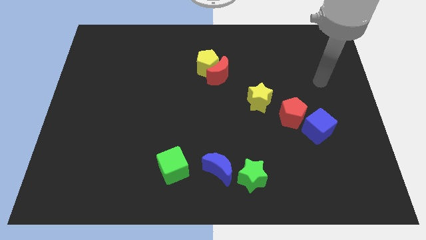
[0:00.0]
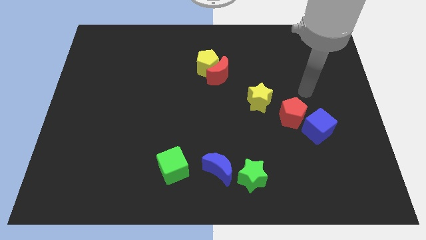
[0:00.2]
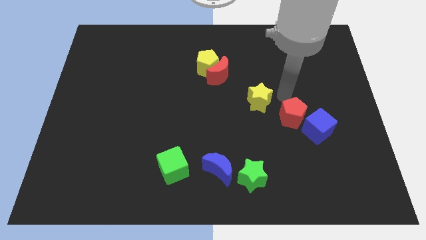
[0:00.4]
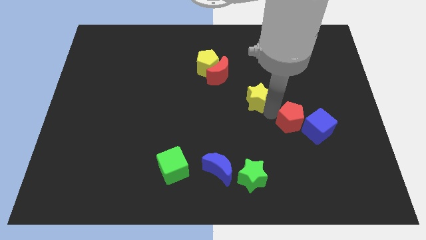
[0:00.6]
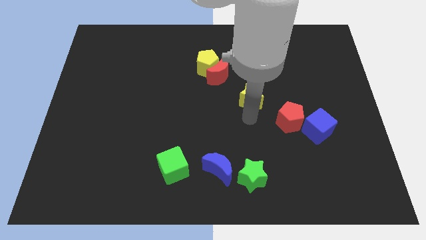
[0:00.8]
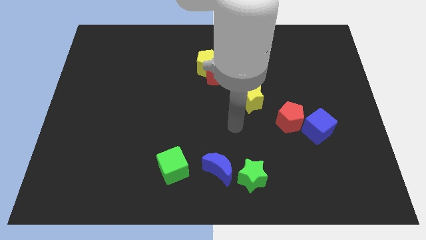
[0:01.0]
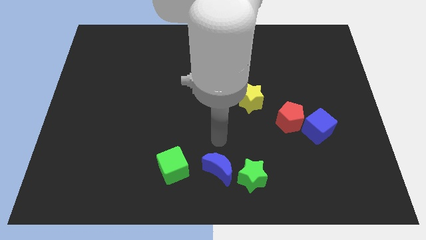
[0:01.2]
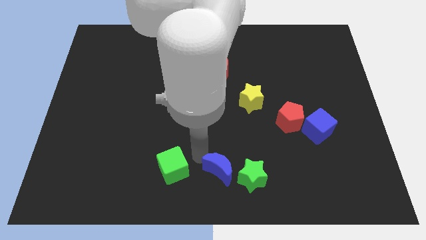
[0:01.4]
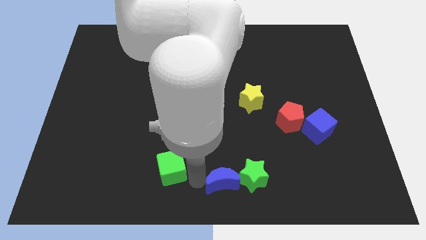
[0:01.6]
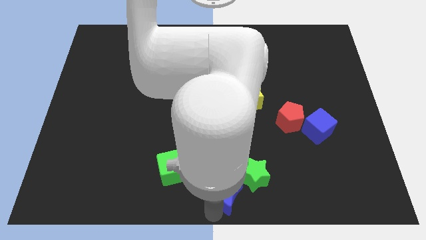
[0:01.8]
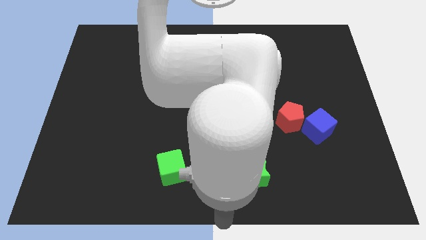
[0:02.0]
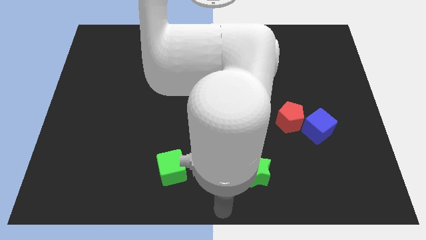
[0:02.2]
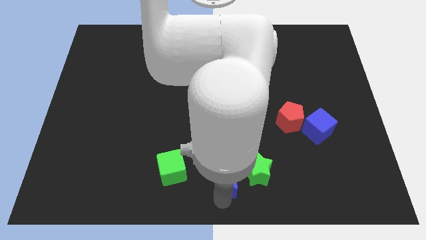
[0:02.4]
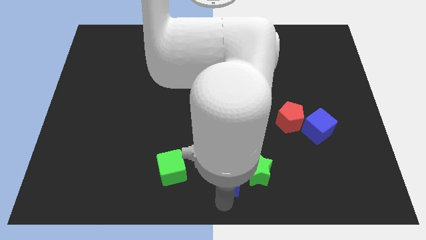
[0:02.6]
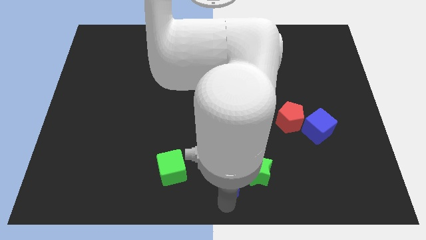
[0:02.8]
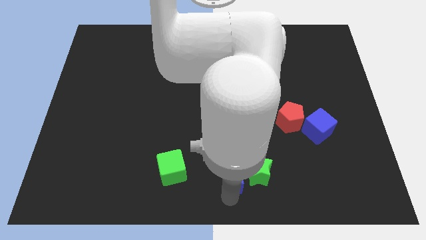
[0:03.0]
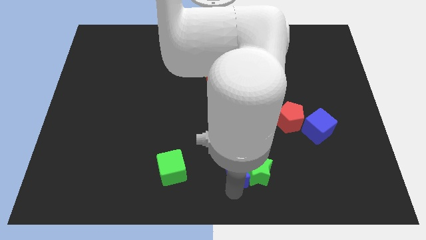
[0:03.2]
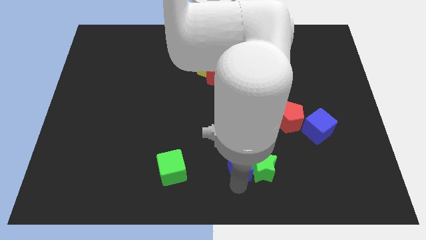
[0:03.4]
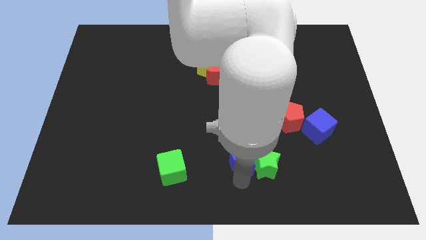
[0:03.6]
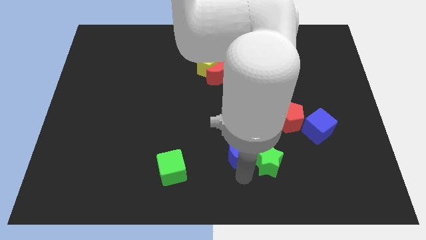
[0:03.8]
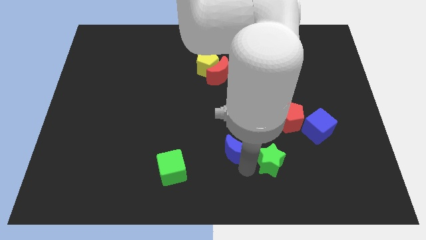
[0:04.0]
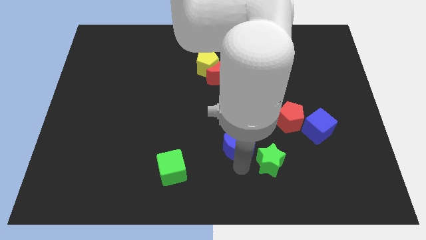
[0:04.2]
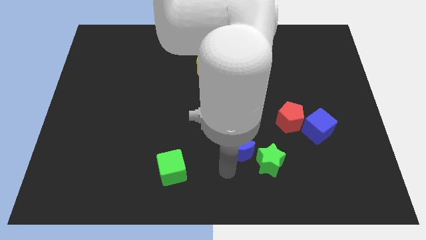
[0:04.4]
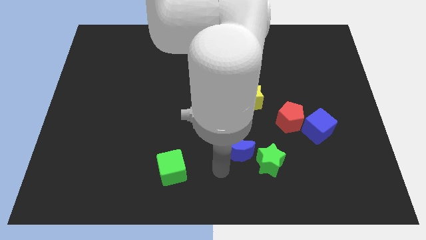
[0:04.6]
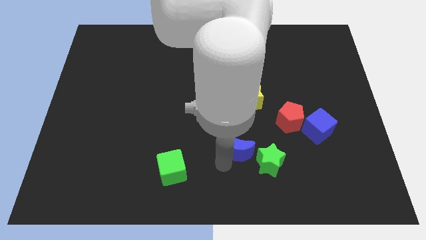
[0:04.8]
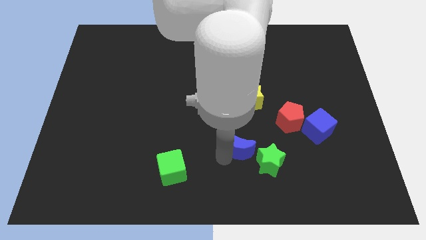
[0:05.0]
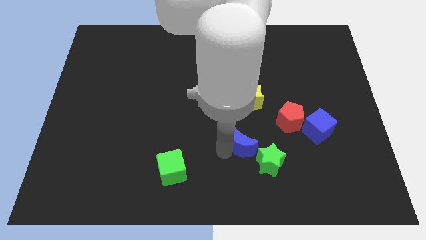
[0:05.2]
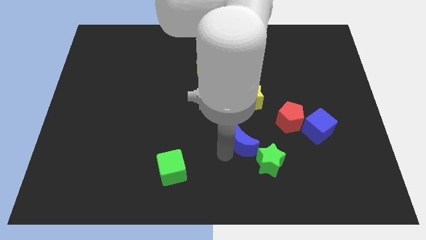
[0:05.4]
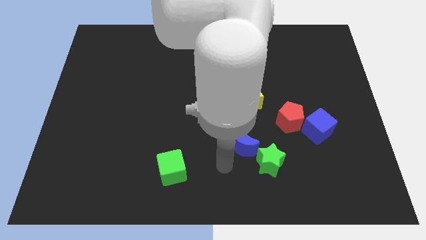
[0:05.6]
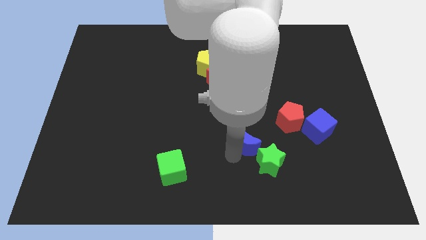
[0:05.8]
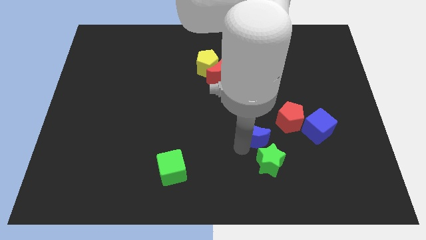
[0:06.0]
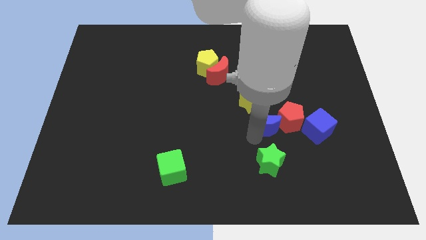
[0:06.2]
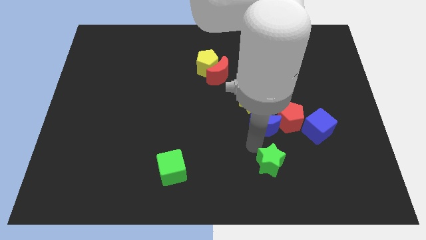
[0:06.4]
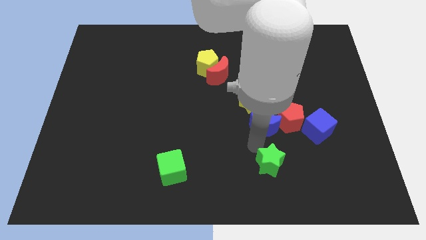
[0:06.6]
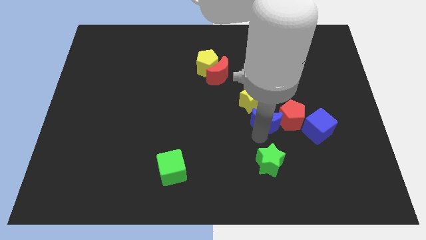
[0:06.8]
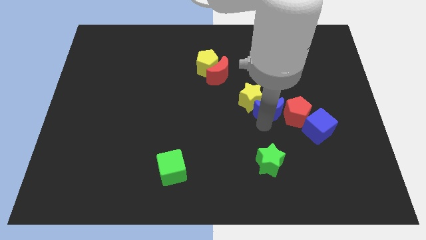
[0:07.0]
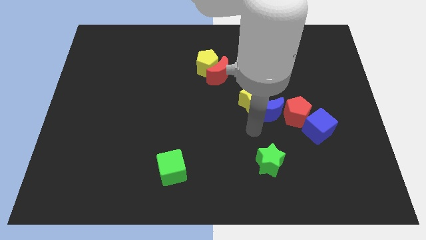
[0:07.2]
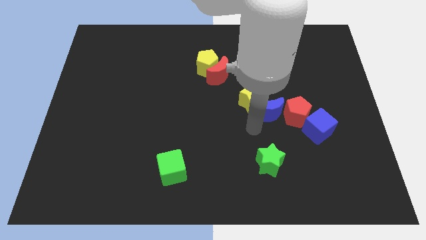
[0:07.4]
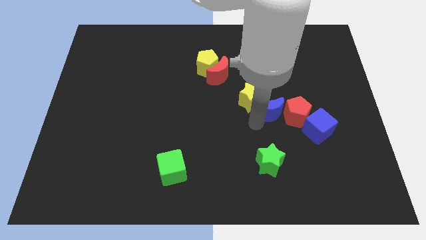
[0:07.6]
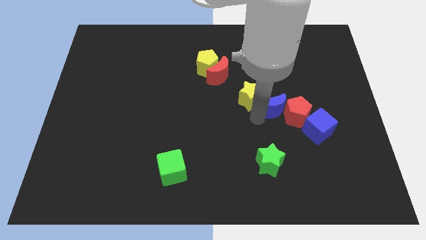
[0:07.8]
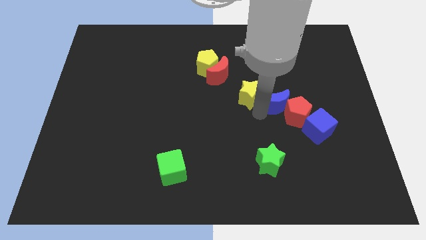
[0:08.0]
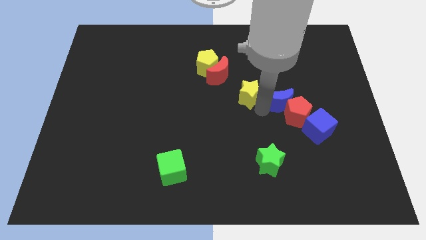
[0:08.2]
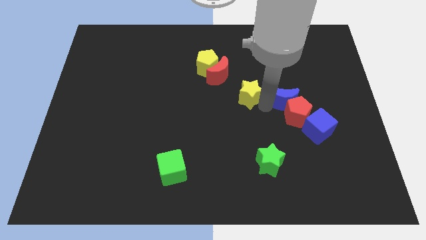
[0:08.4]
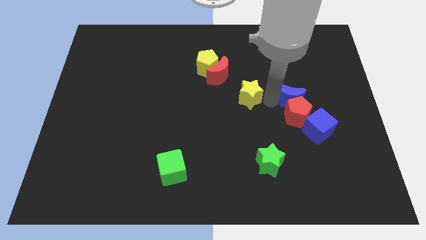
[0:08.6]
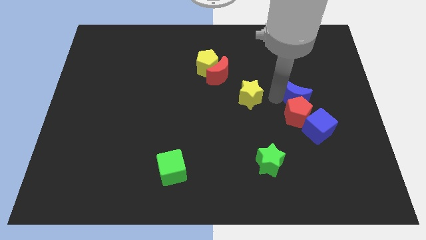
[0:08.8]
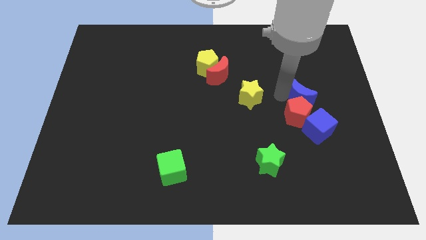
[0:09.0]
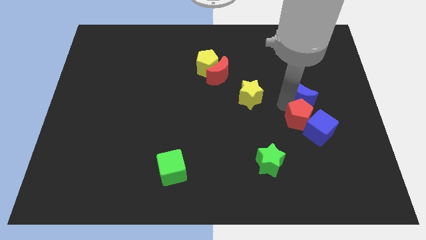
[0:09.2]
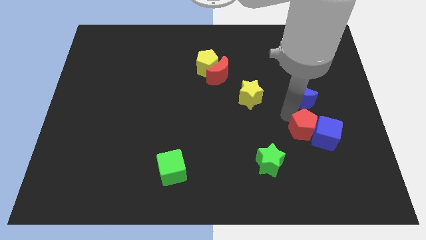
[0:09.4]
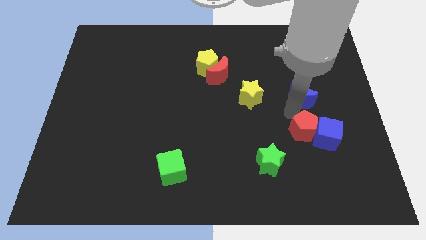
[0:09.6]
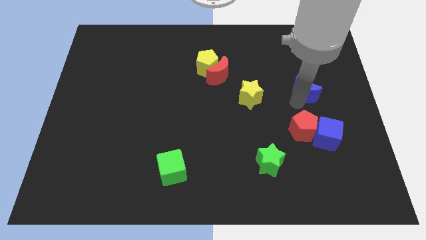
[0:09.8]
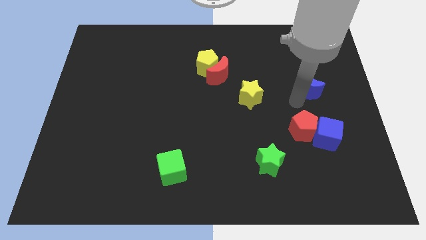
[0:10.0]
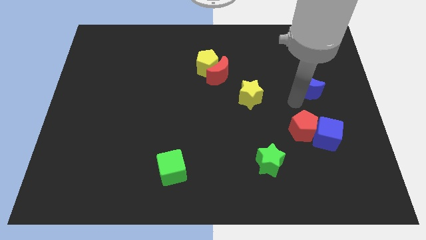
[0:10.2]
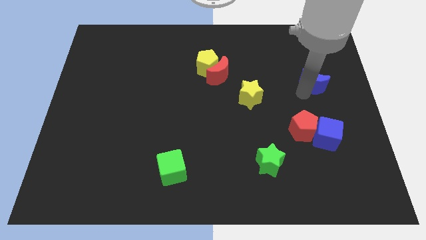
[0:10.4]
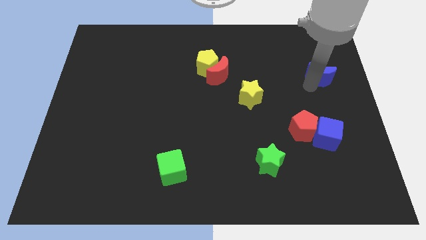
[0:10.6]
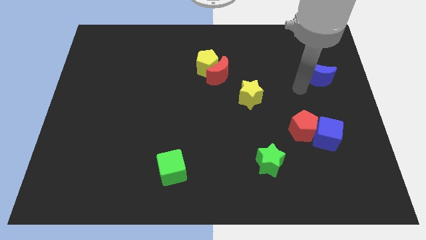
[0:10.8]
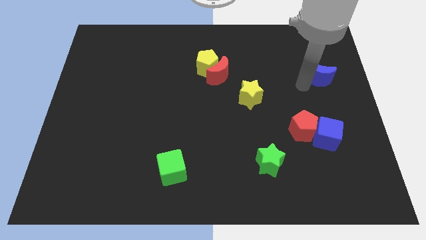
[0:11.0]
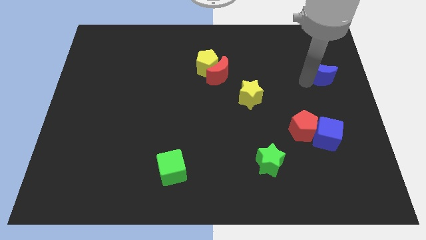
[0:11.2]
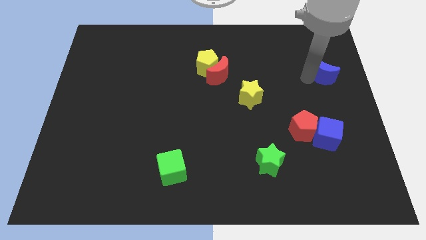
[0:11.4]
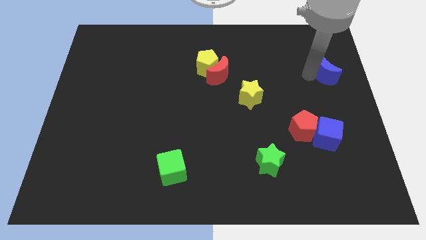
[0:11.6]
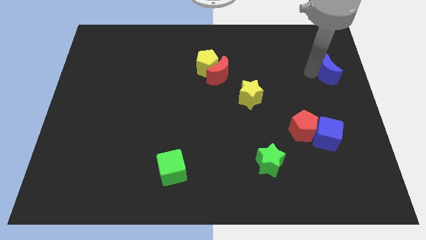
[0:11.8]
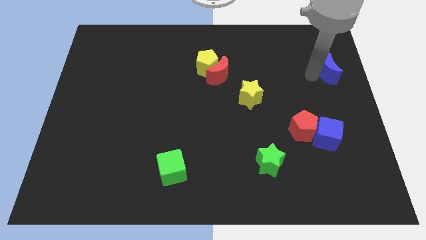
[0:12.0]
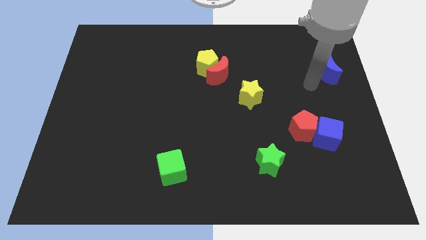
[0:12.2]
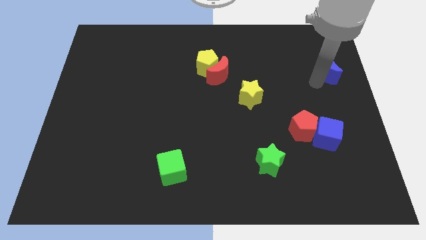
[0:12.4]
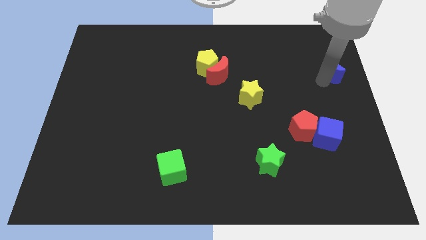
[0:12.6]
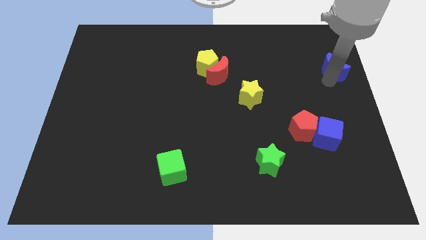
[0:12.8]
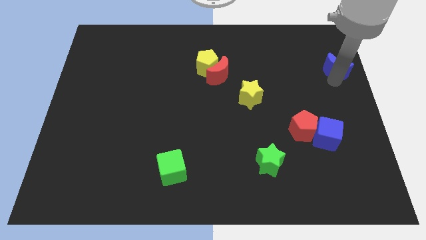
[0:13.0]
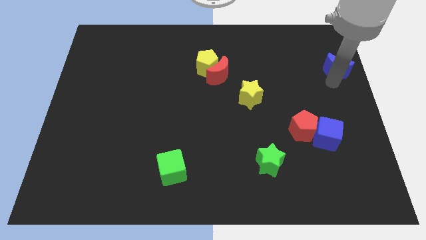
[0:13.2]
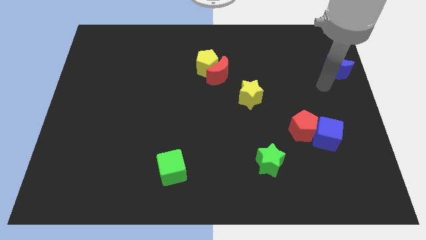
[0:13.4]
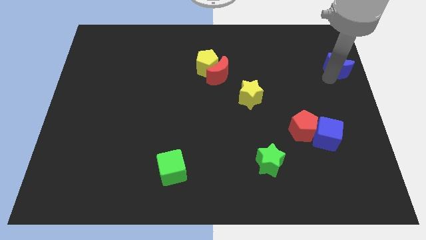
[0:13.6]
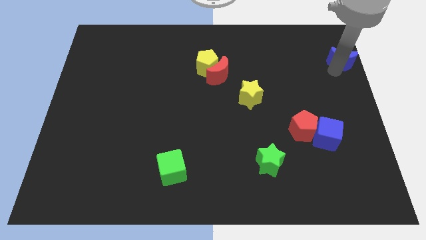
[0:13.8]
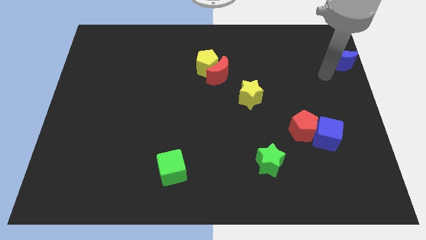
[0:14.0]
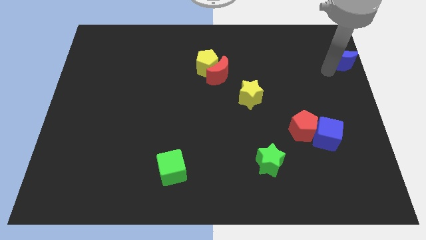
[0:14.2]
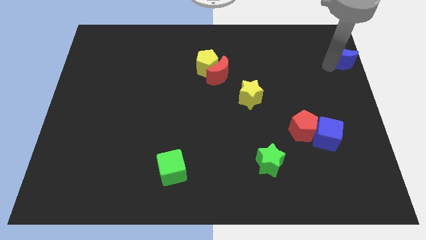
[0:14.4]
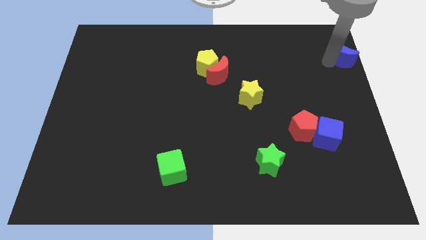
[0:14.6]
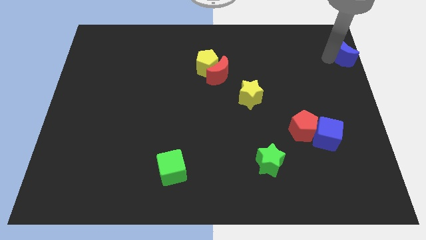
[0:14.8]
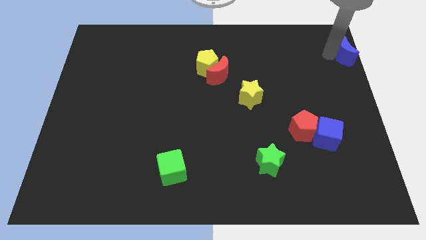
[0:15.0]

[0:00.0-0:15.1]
move the blue moon to the top right
